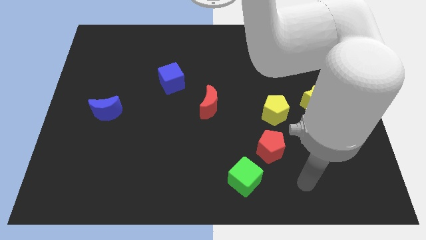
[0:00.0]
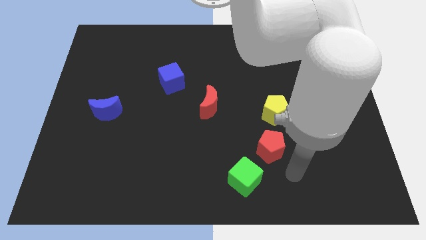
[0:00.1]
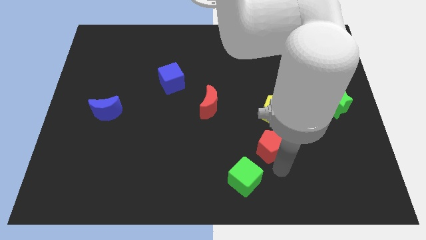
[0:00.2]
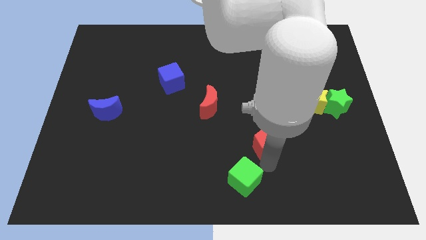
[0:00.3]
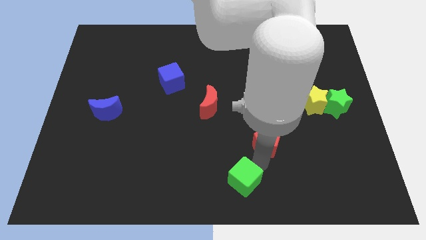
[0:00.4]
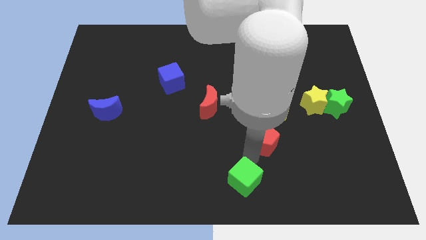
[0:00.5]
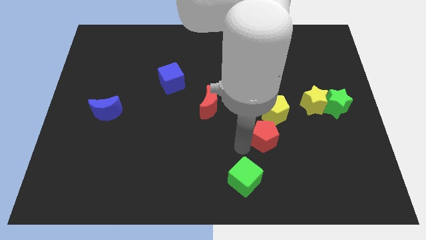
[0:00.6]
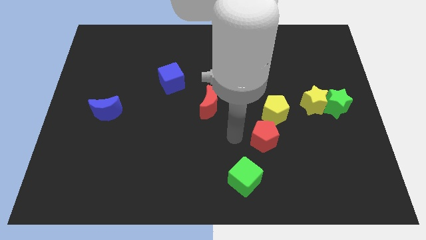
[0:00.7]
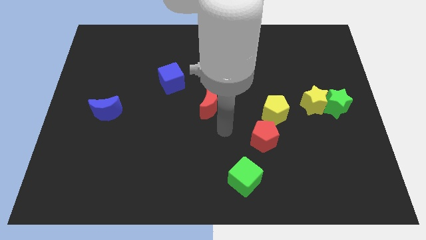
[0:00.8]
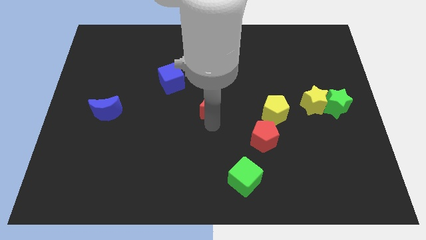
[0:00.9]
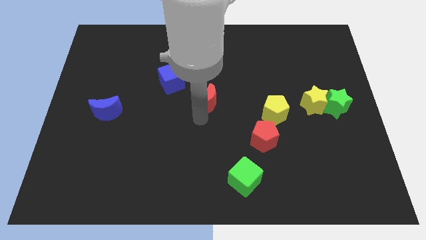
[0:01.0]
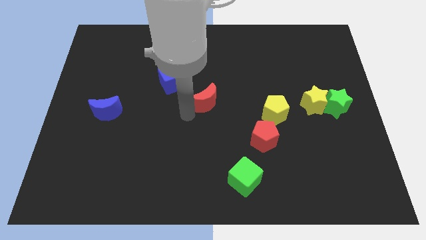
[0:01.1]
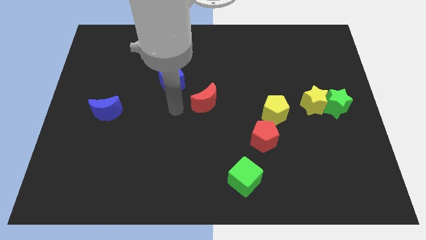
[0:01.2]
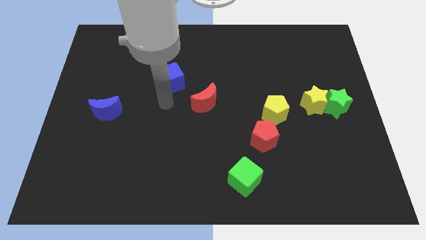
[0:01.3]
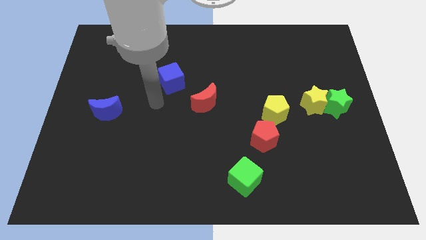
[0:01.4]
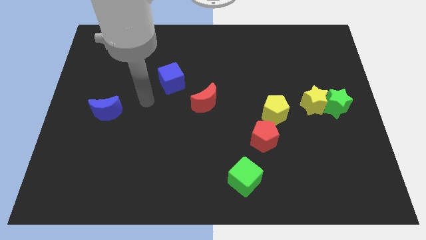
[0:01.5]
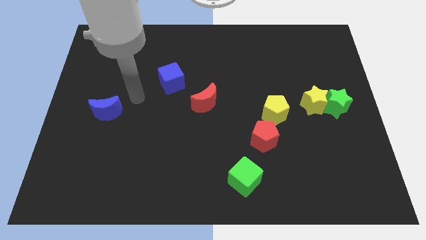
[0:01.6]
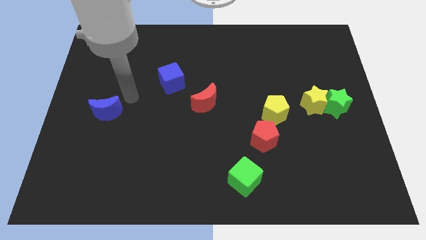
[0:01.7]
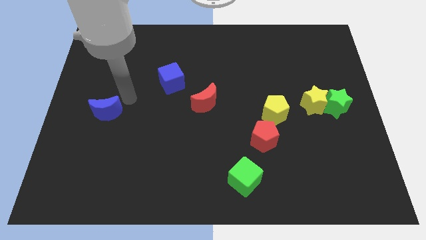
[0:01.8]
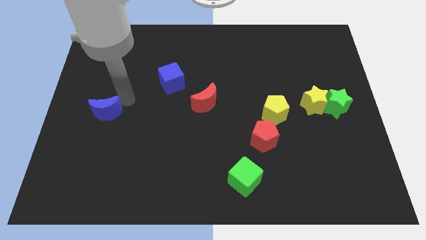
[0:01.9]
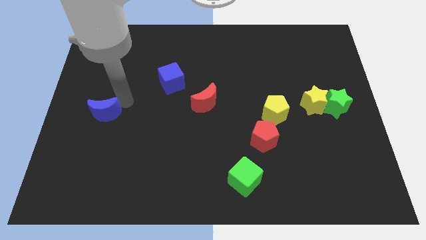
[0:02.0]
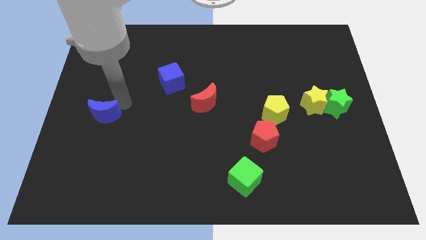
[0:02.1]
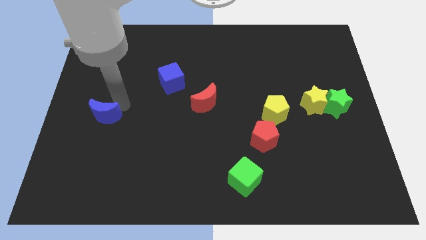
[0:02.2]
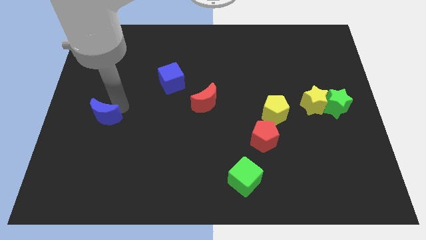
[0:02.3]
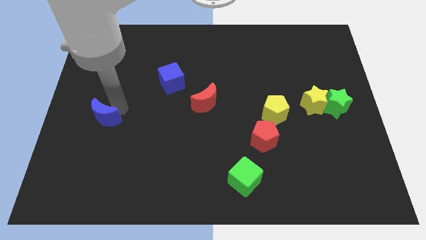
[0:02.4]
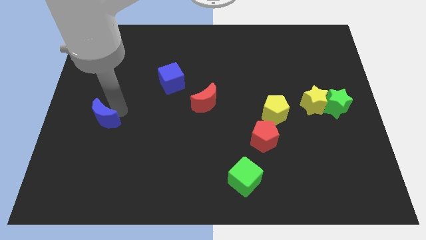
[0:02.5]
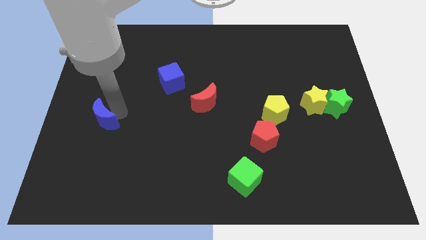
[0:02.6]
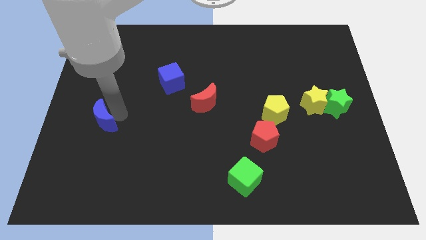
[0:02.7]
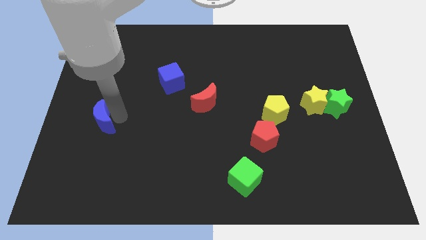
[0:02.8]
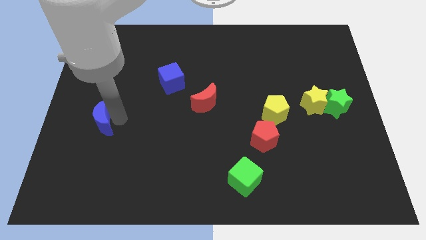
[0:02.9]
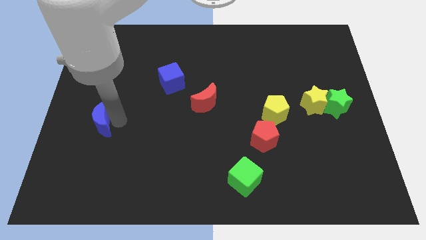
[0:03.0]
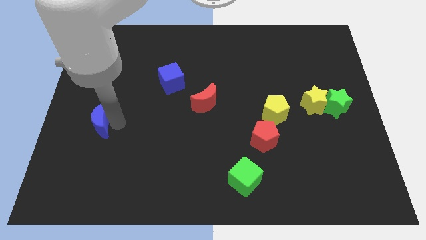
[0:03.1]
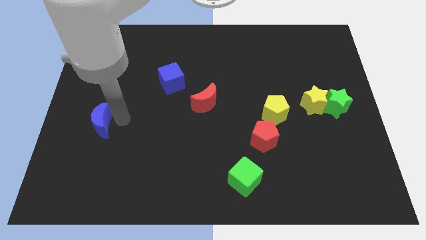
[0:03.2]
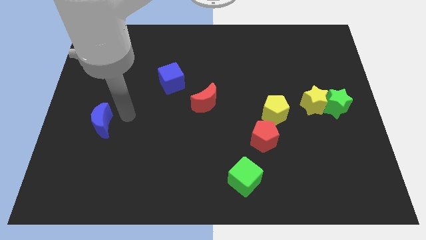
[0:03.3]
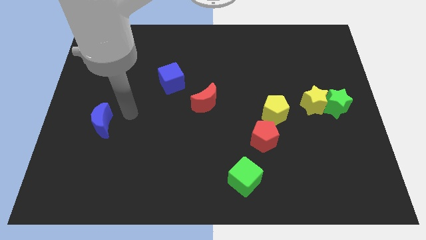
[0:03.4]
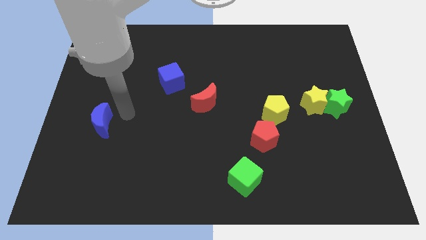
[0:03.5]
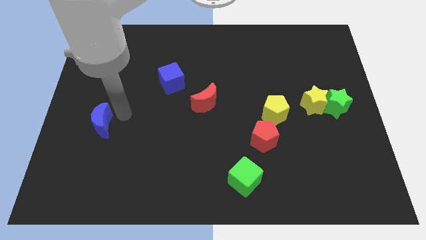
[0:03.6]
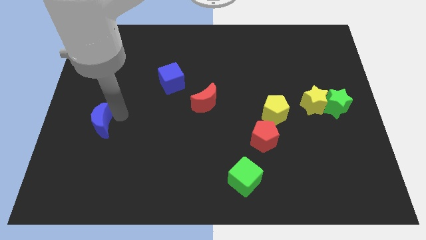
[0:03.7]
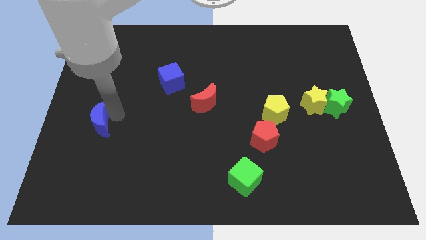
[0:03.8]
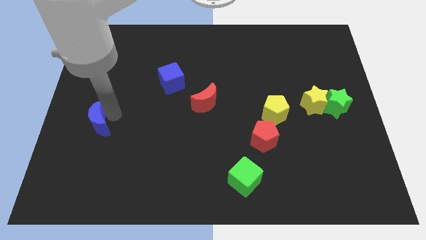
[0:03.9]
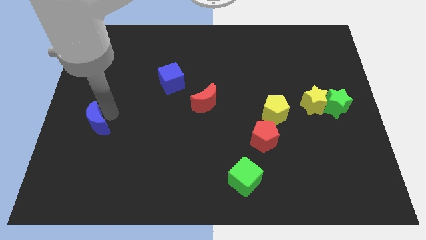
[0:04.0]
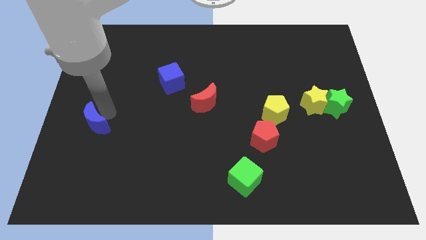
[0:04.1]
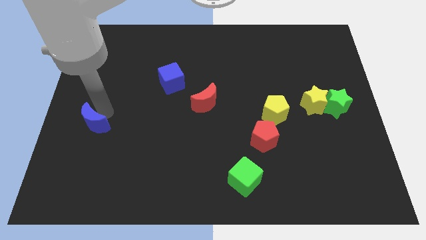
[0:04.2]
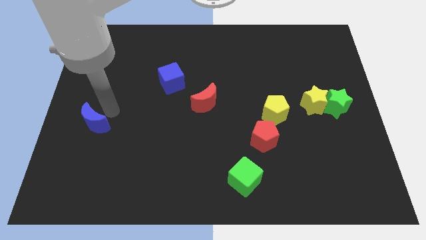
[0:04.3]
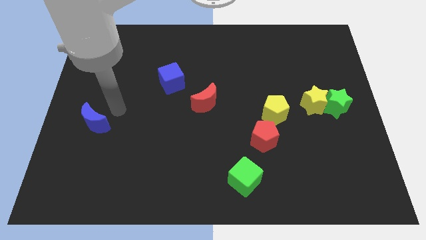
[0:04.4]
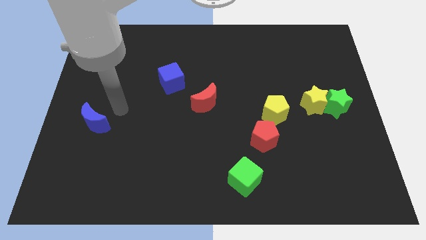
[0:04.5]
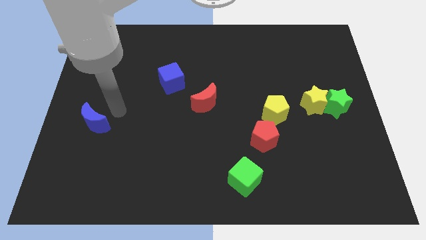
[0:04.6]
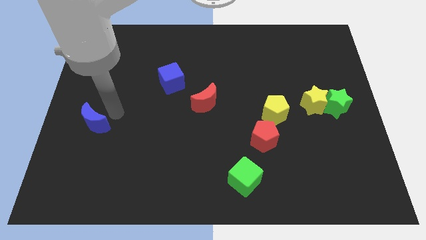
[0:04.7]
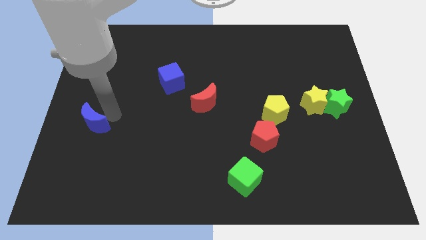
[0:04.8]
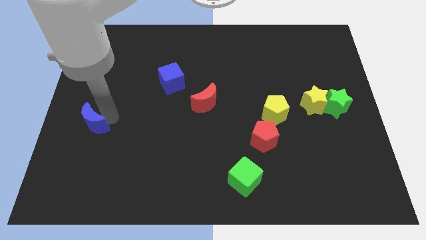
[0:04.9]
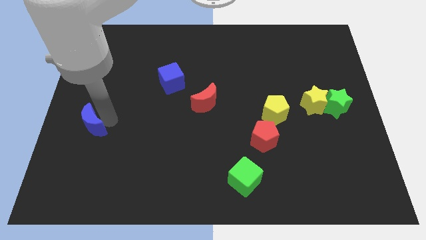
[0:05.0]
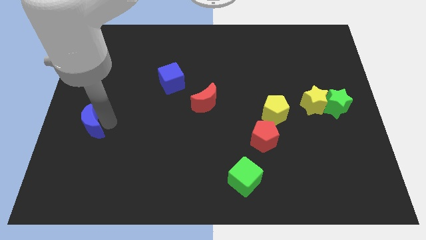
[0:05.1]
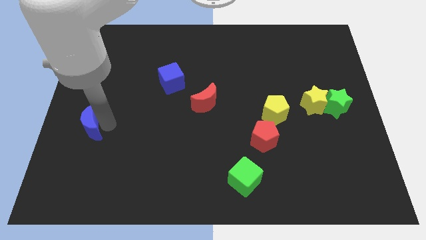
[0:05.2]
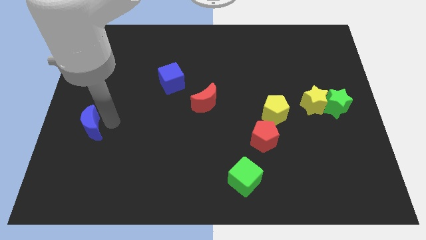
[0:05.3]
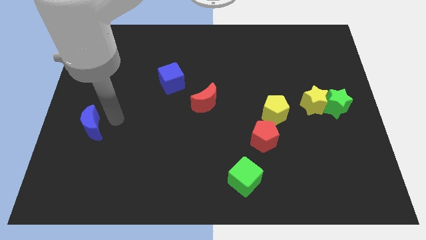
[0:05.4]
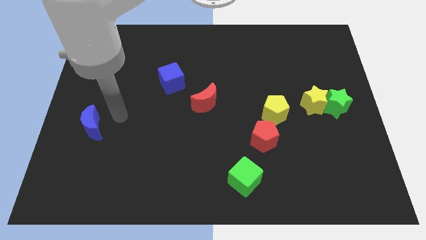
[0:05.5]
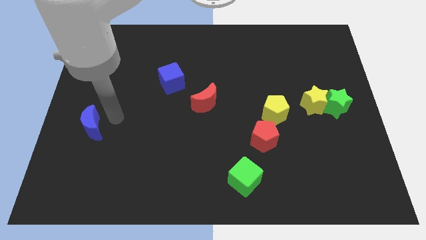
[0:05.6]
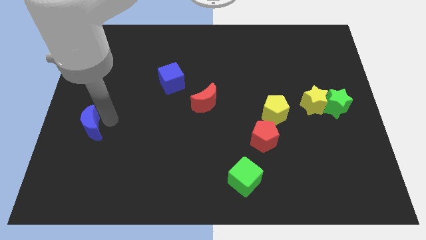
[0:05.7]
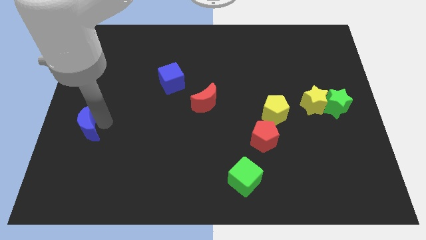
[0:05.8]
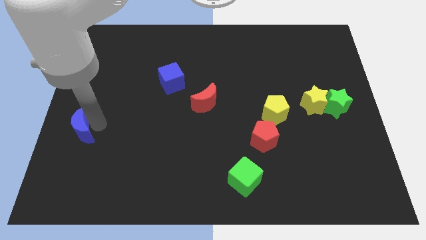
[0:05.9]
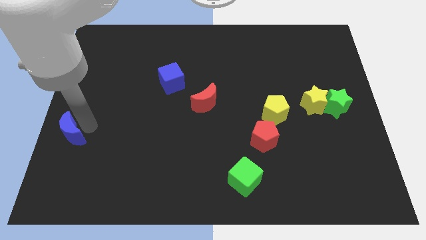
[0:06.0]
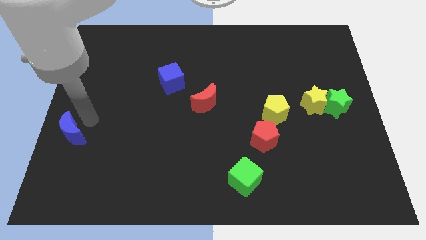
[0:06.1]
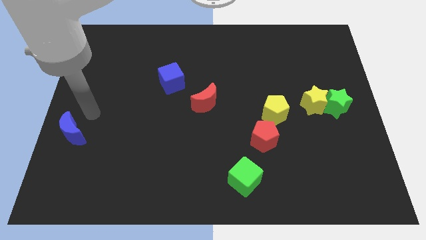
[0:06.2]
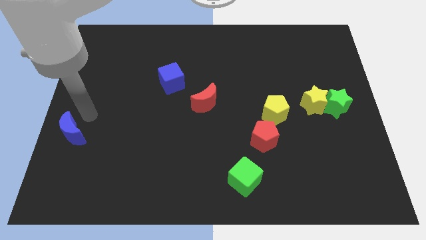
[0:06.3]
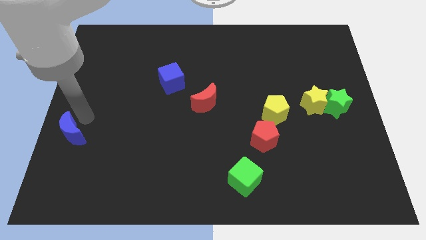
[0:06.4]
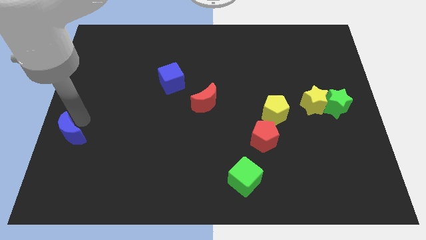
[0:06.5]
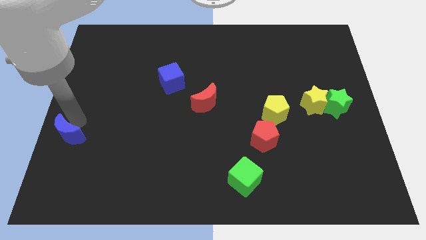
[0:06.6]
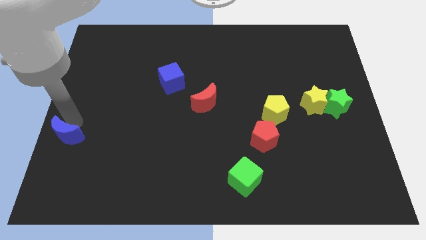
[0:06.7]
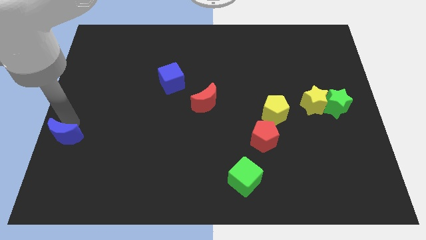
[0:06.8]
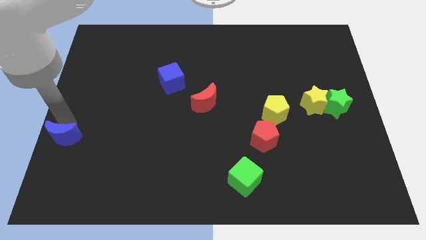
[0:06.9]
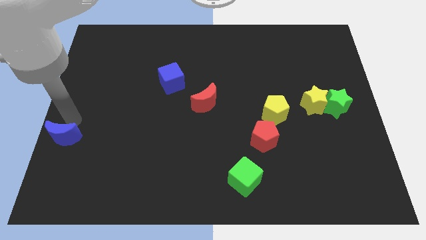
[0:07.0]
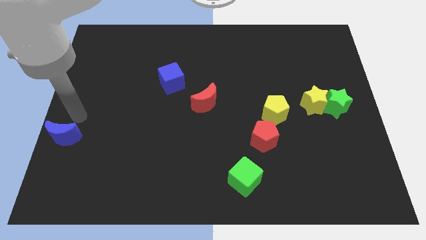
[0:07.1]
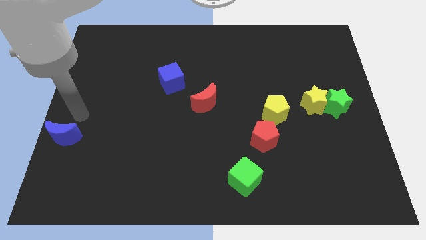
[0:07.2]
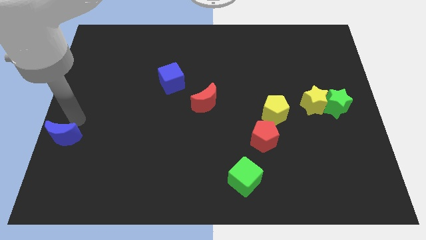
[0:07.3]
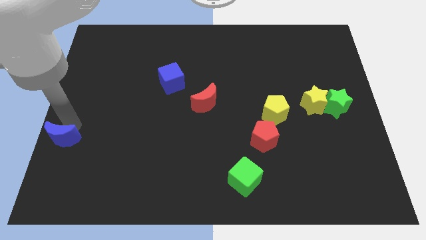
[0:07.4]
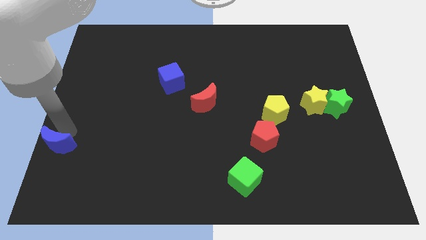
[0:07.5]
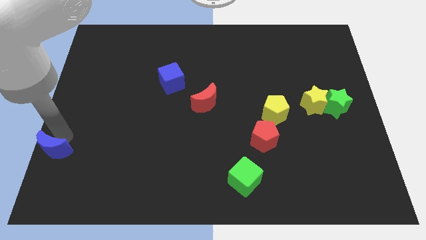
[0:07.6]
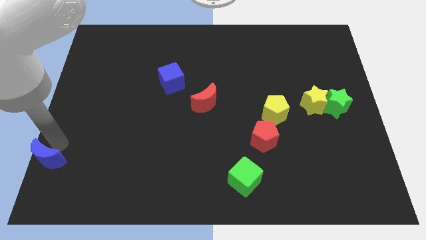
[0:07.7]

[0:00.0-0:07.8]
move the blue moon to the bottom left corner
